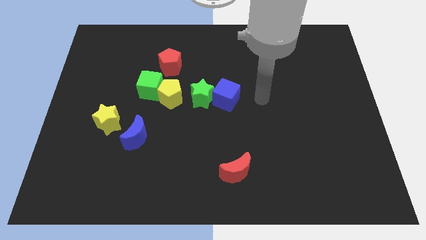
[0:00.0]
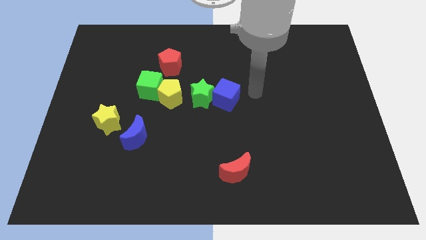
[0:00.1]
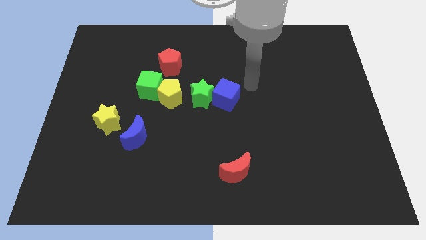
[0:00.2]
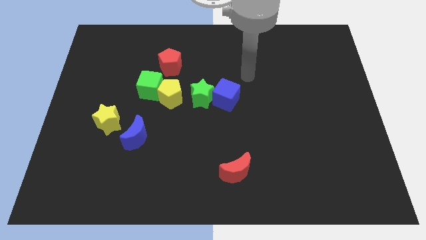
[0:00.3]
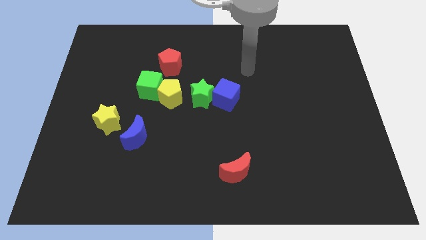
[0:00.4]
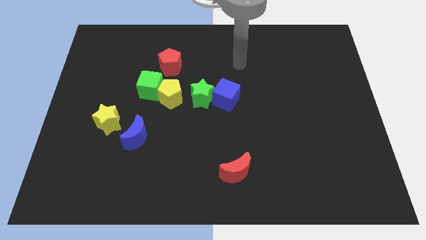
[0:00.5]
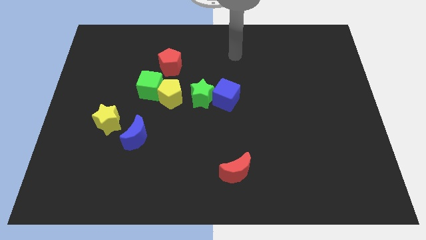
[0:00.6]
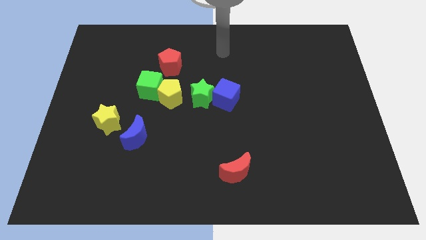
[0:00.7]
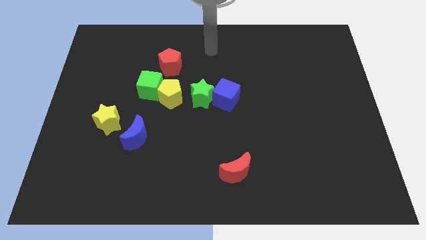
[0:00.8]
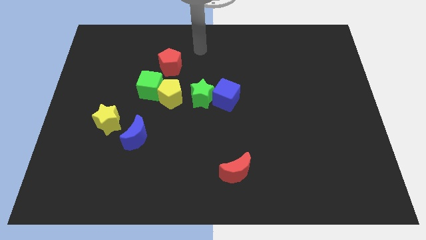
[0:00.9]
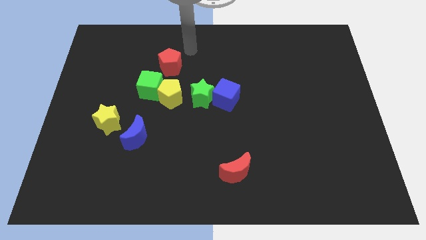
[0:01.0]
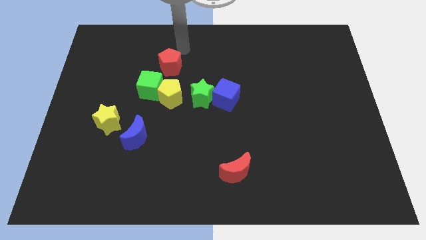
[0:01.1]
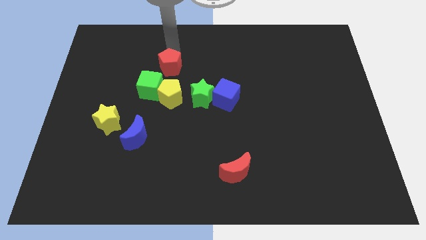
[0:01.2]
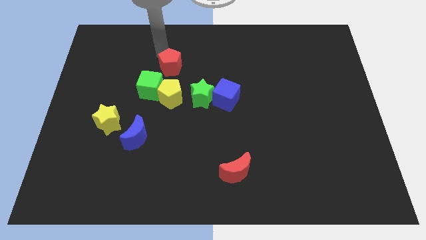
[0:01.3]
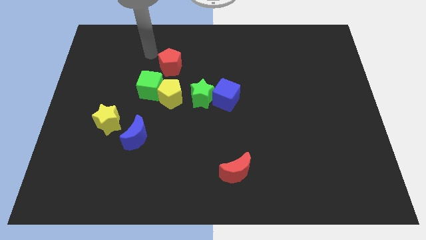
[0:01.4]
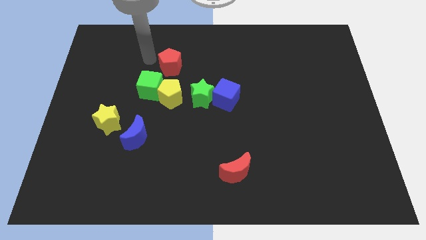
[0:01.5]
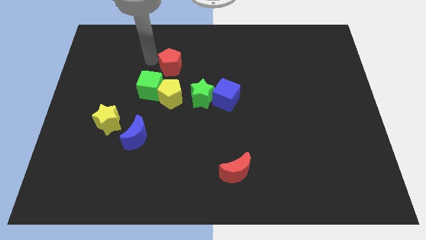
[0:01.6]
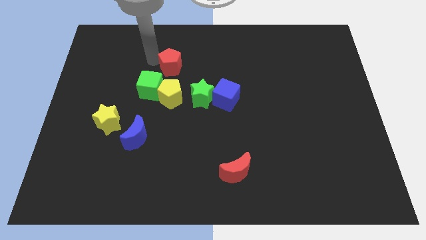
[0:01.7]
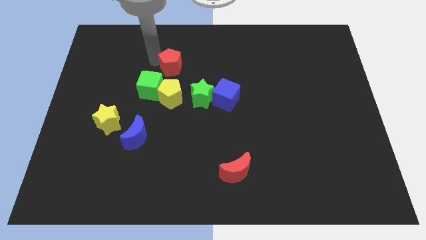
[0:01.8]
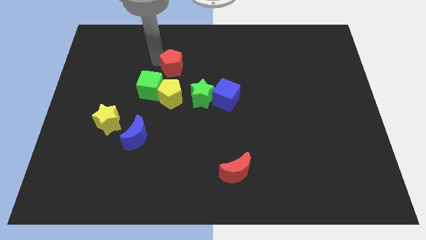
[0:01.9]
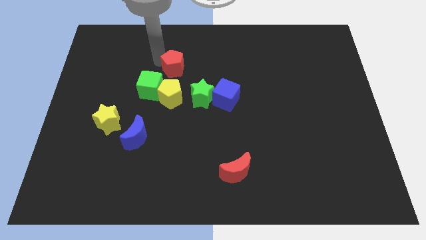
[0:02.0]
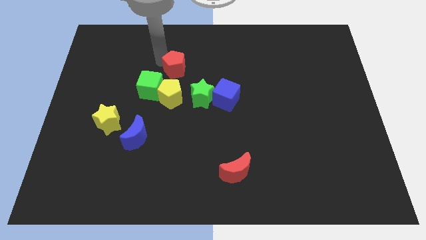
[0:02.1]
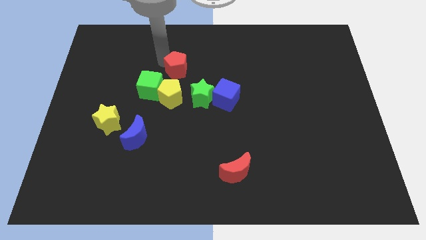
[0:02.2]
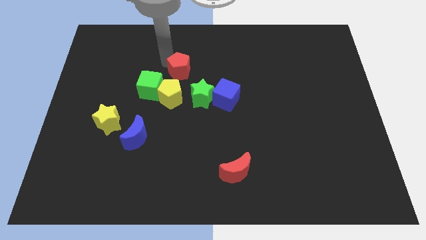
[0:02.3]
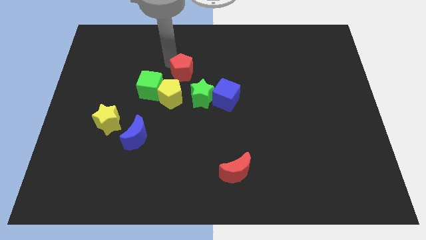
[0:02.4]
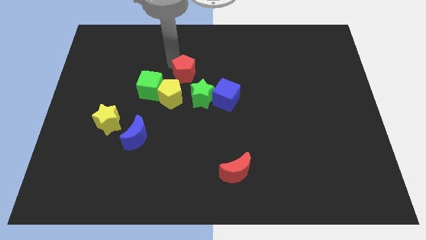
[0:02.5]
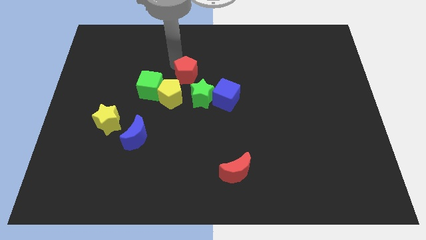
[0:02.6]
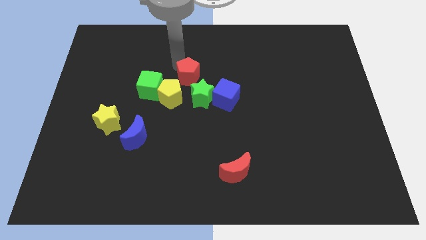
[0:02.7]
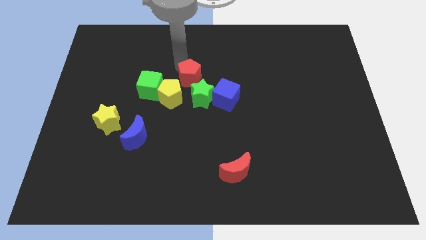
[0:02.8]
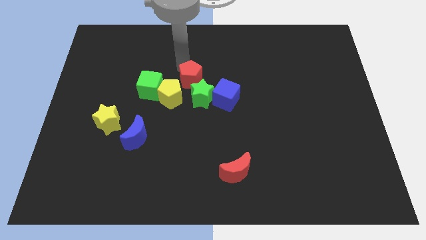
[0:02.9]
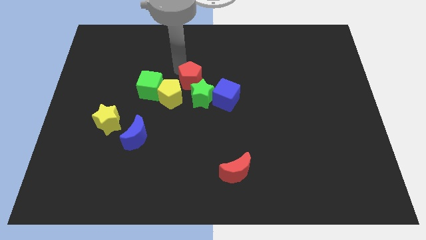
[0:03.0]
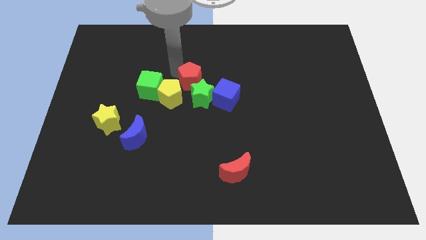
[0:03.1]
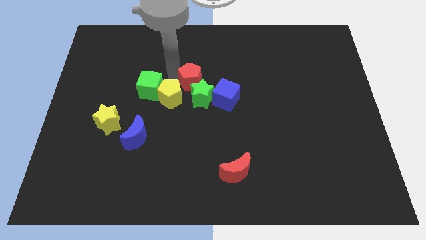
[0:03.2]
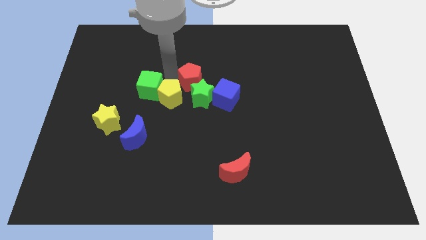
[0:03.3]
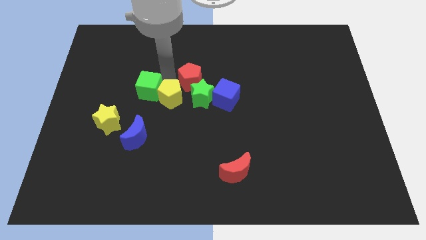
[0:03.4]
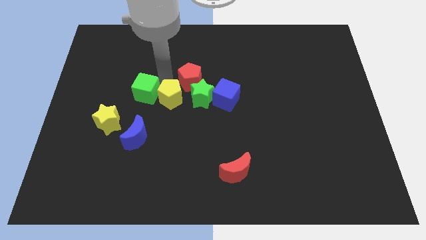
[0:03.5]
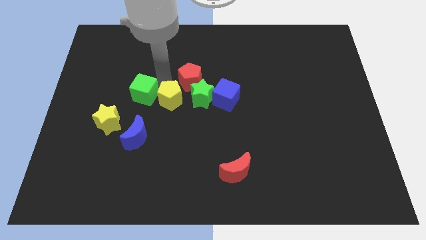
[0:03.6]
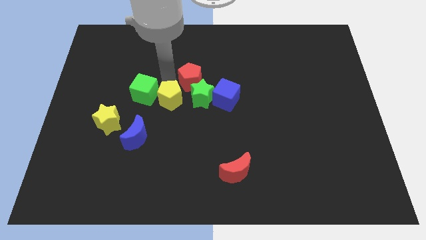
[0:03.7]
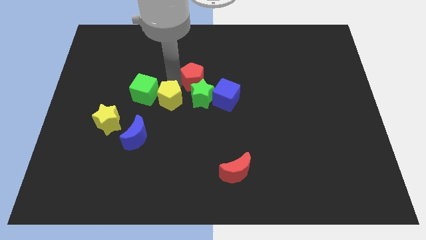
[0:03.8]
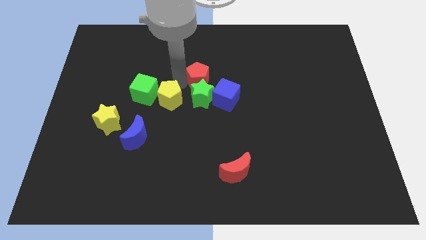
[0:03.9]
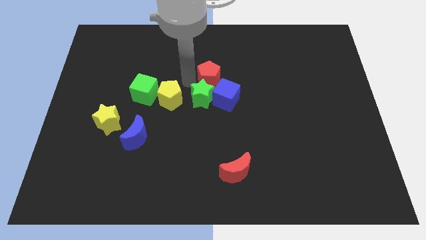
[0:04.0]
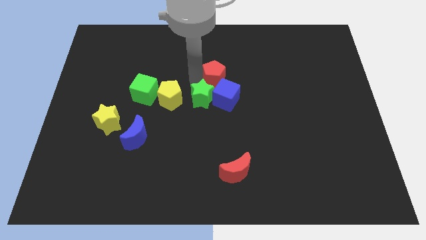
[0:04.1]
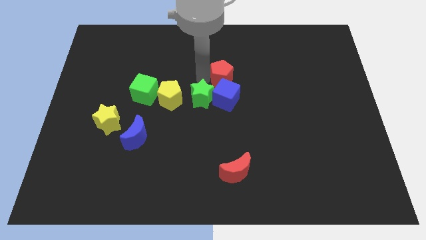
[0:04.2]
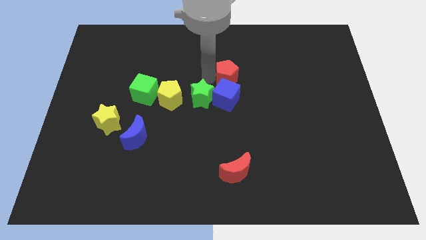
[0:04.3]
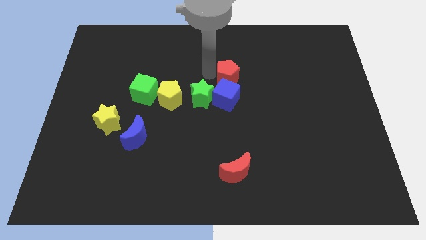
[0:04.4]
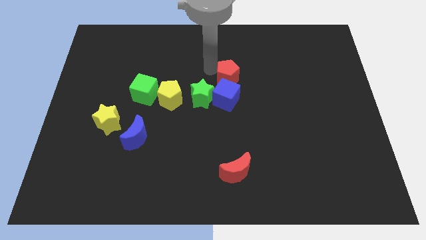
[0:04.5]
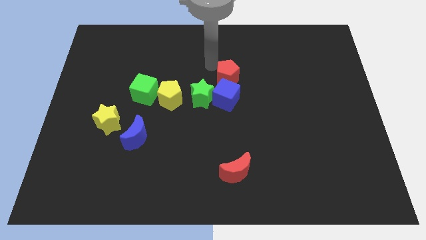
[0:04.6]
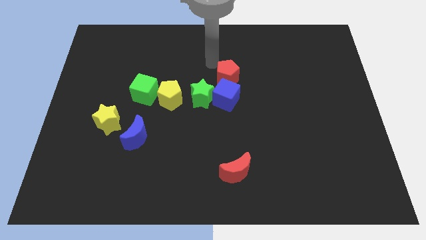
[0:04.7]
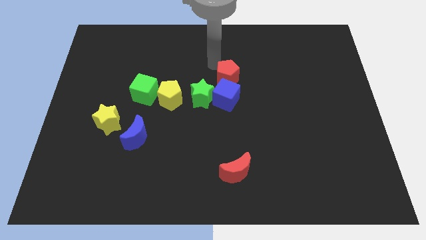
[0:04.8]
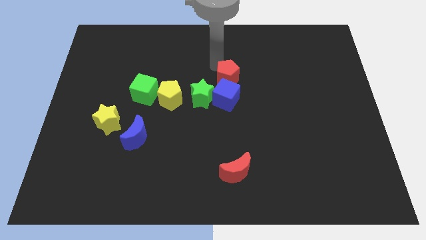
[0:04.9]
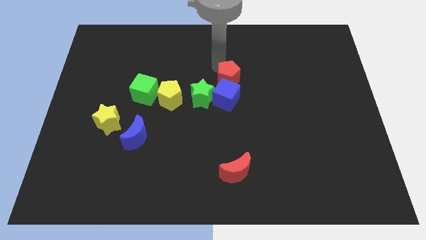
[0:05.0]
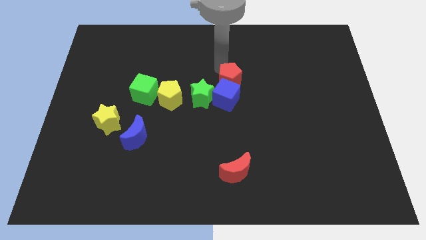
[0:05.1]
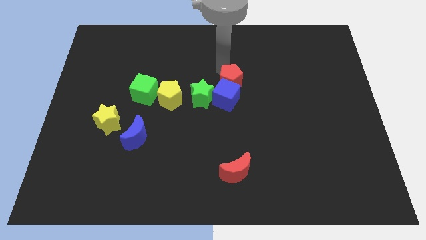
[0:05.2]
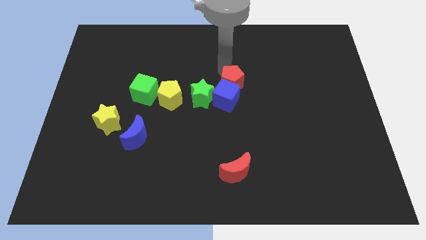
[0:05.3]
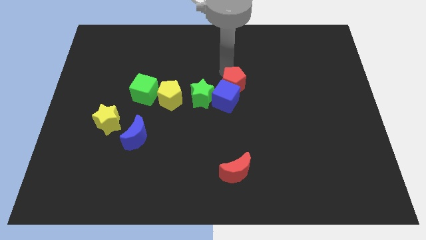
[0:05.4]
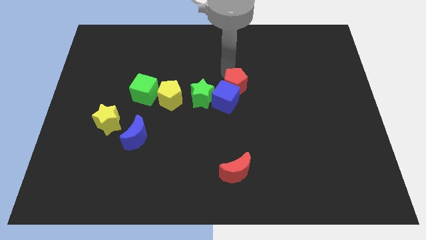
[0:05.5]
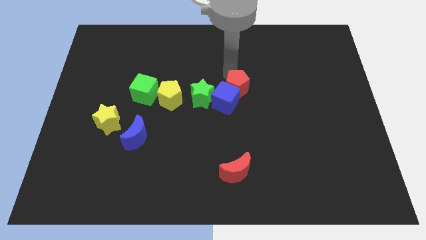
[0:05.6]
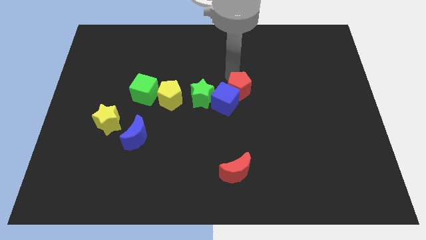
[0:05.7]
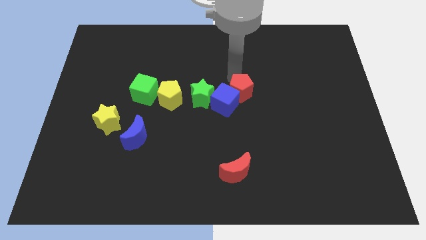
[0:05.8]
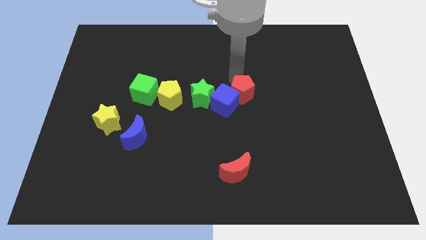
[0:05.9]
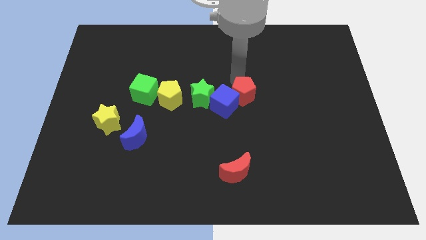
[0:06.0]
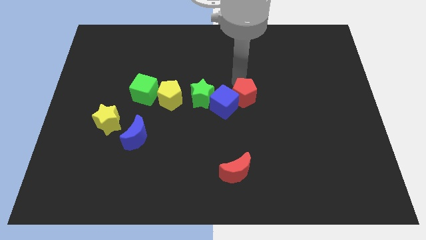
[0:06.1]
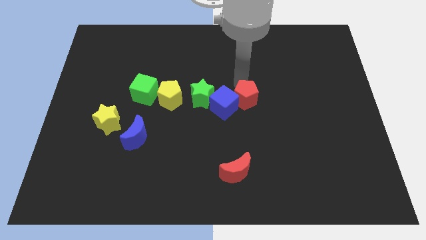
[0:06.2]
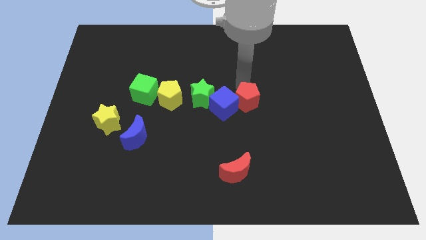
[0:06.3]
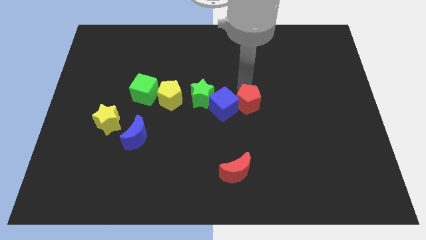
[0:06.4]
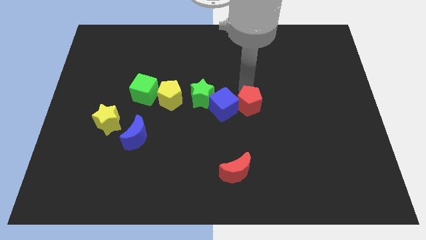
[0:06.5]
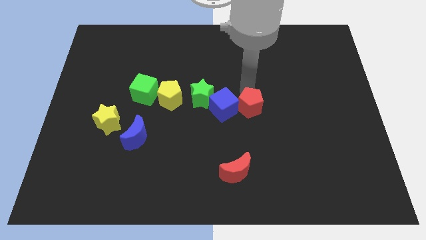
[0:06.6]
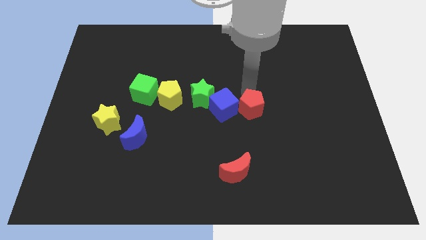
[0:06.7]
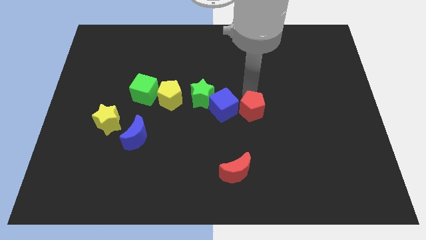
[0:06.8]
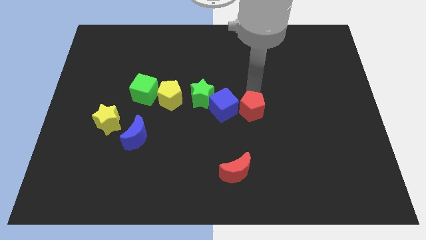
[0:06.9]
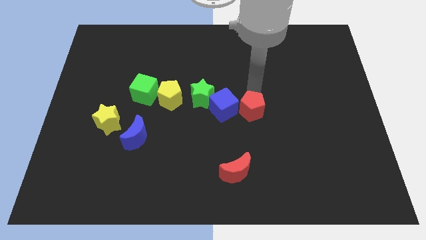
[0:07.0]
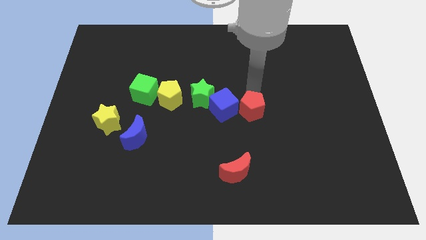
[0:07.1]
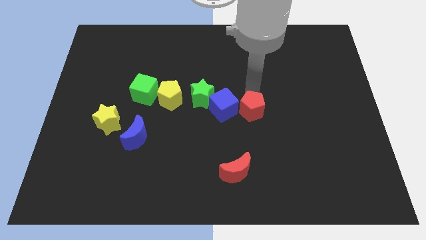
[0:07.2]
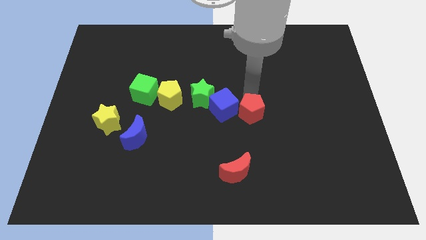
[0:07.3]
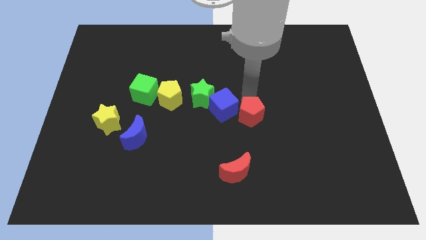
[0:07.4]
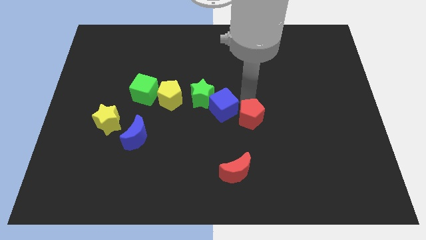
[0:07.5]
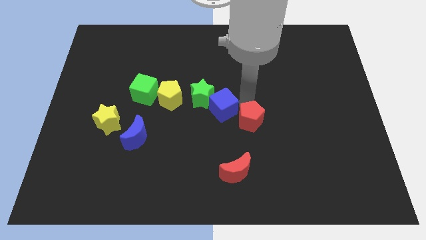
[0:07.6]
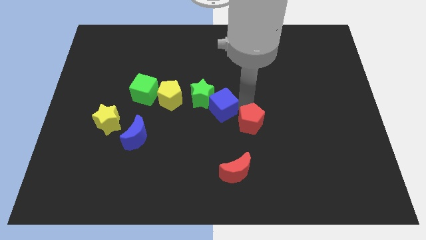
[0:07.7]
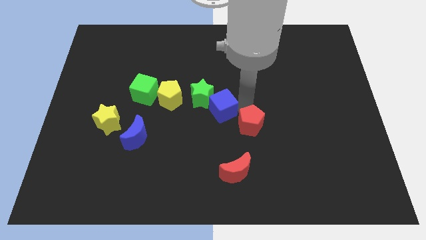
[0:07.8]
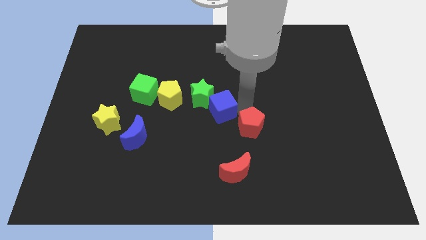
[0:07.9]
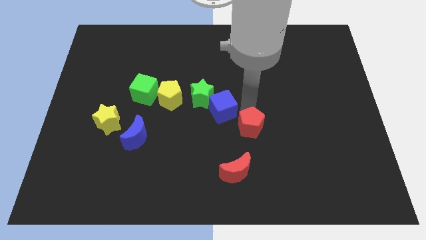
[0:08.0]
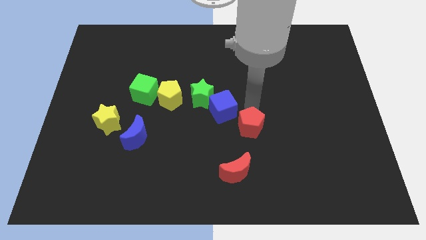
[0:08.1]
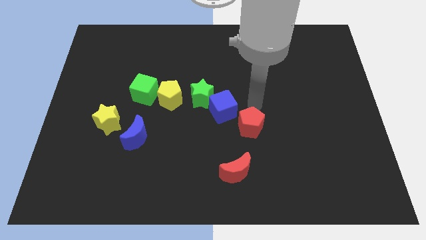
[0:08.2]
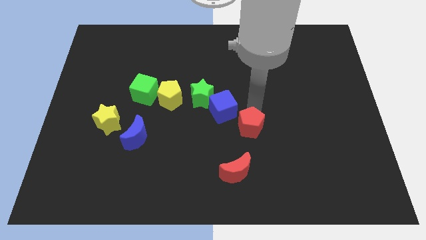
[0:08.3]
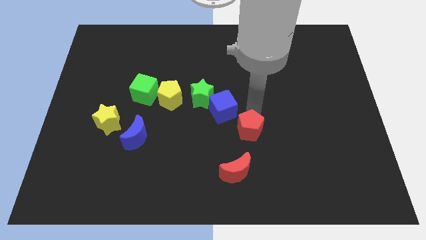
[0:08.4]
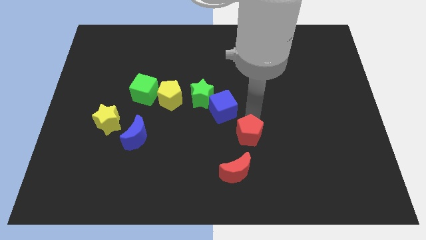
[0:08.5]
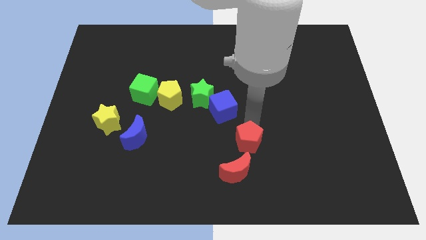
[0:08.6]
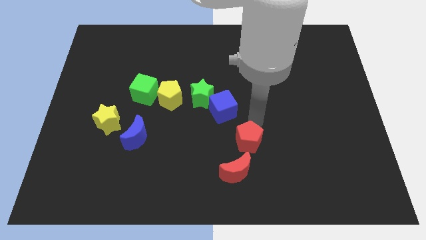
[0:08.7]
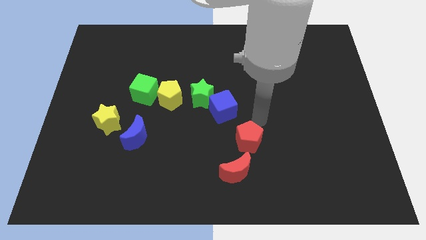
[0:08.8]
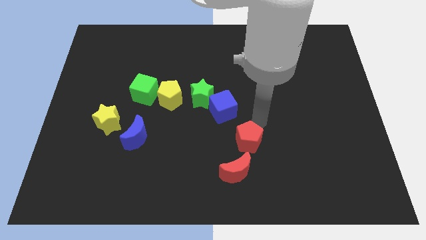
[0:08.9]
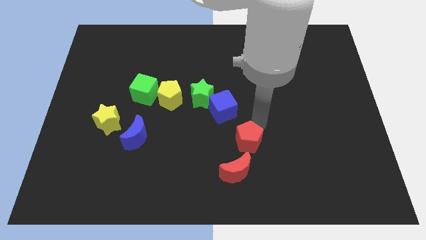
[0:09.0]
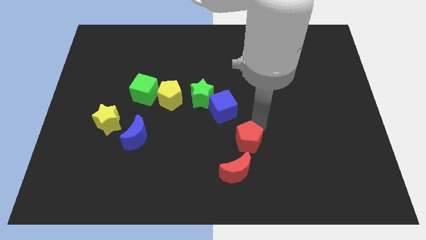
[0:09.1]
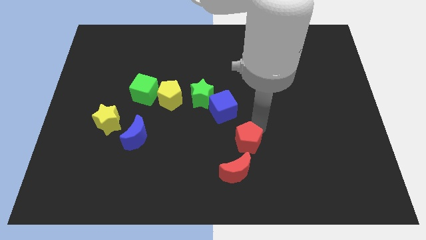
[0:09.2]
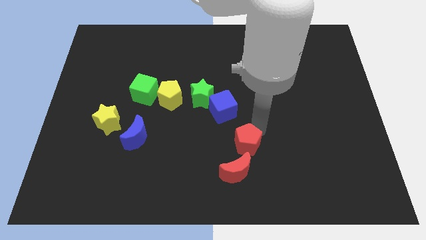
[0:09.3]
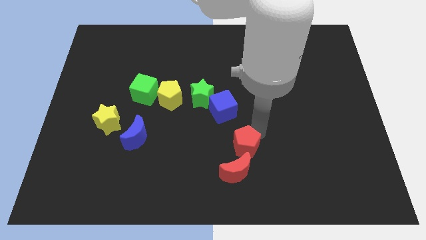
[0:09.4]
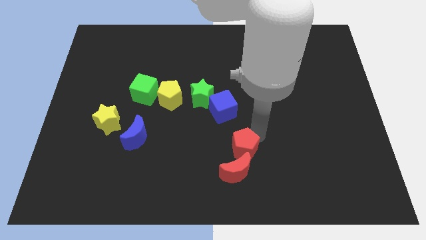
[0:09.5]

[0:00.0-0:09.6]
put the red pentagon towards the red moon
